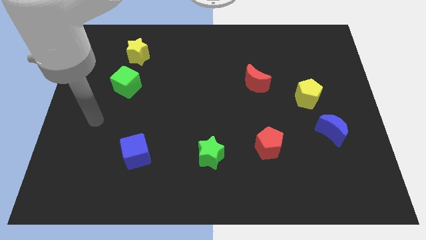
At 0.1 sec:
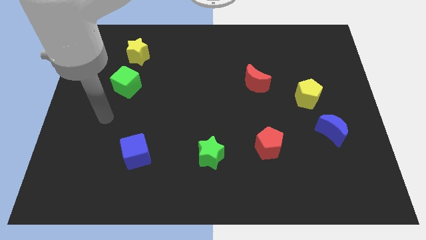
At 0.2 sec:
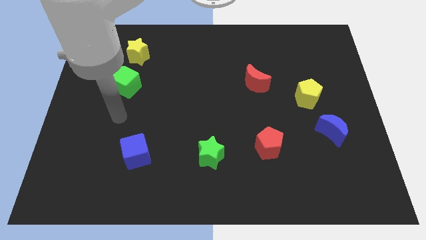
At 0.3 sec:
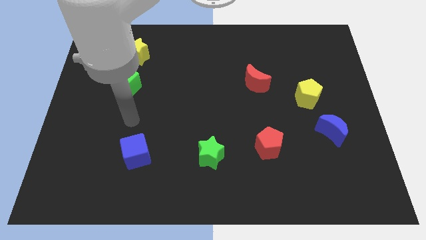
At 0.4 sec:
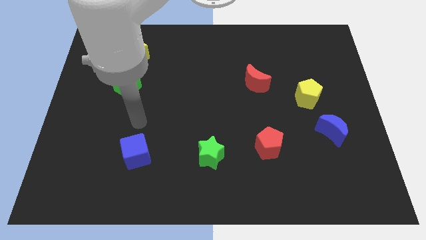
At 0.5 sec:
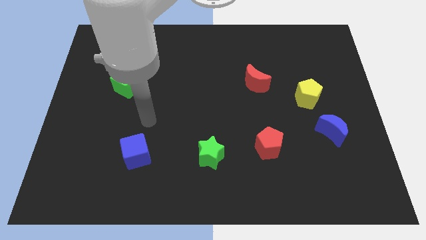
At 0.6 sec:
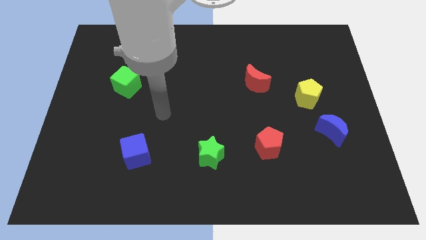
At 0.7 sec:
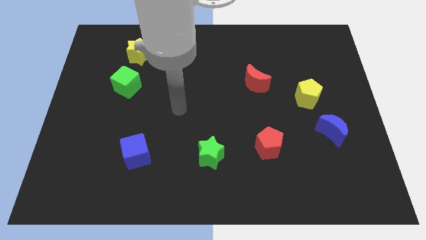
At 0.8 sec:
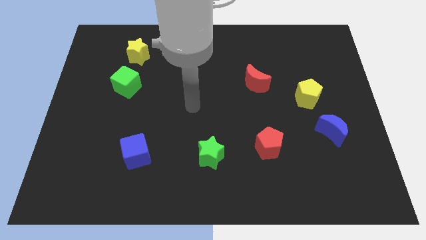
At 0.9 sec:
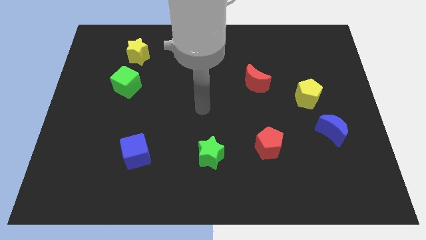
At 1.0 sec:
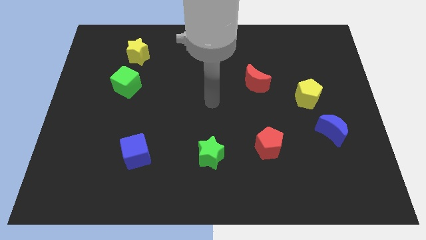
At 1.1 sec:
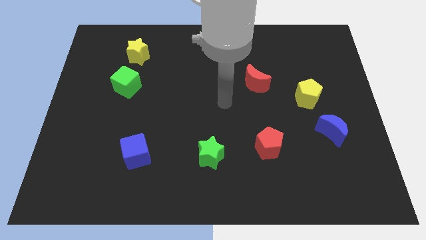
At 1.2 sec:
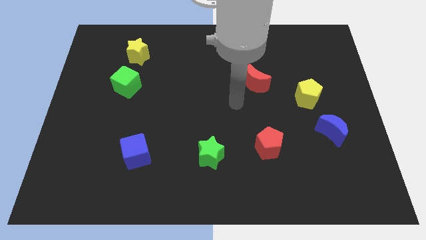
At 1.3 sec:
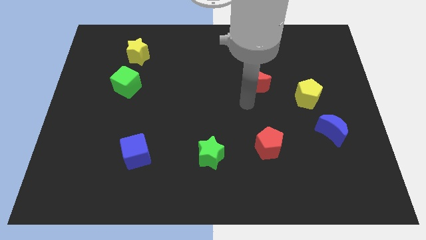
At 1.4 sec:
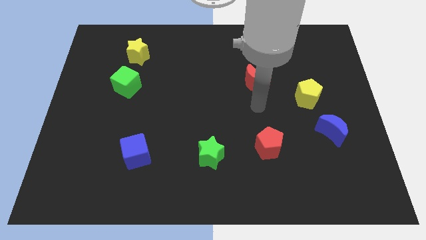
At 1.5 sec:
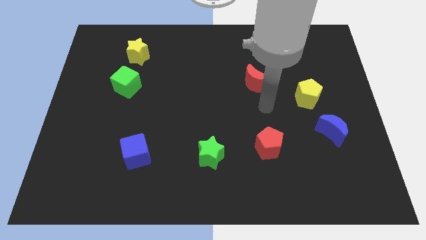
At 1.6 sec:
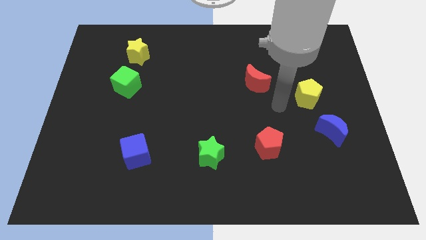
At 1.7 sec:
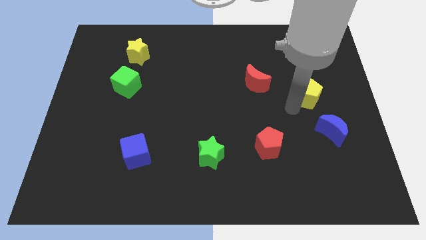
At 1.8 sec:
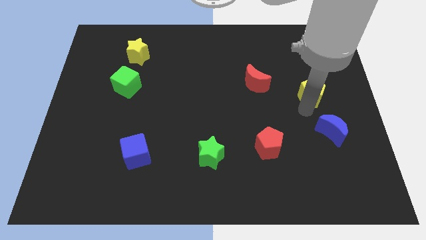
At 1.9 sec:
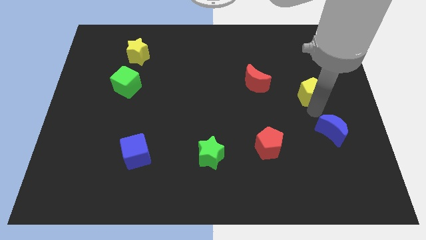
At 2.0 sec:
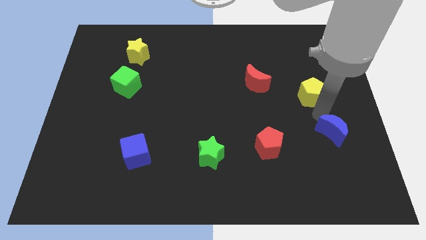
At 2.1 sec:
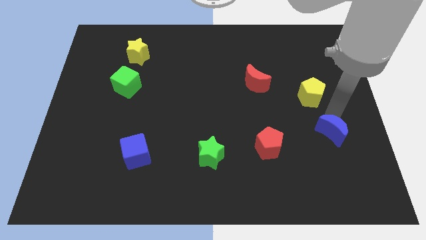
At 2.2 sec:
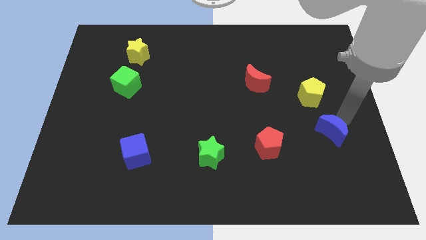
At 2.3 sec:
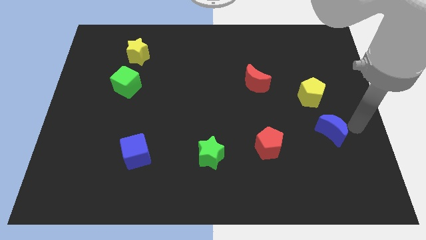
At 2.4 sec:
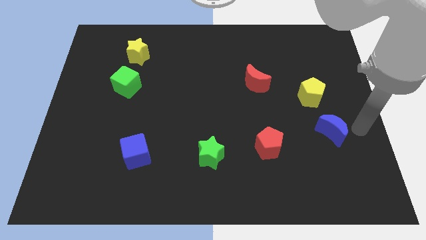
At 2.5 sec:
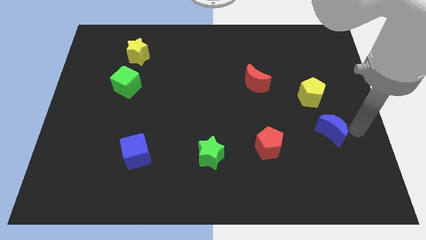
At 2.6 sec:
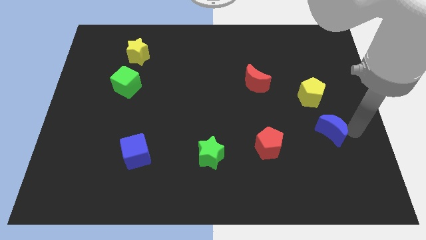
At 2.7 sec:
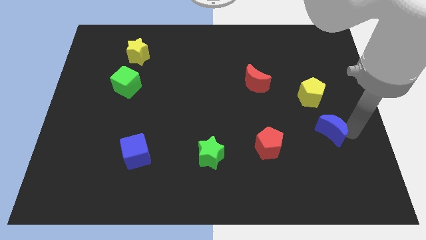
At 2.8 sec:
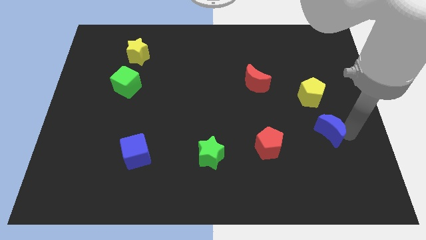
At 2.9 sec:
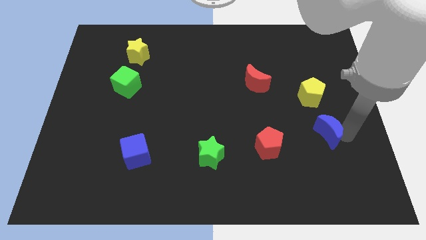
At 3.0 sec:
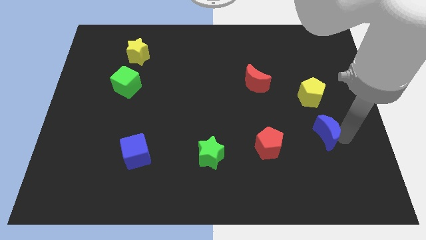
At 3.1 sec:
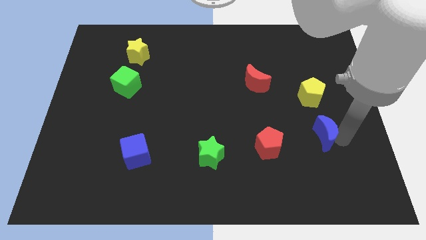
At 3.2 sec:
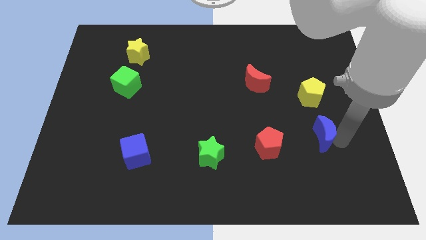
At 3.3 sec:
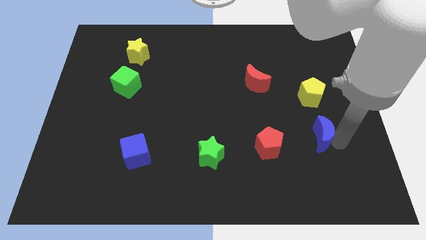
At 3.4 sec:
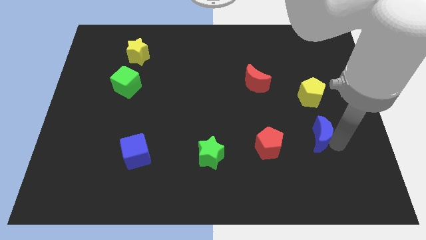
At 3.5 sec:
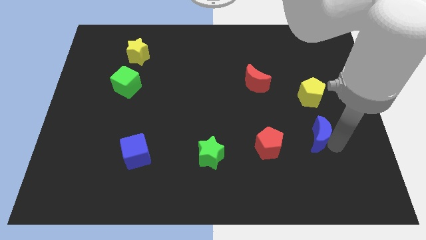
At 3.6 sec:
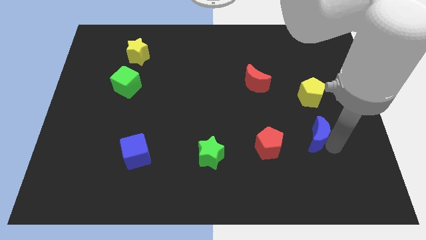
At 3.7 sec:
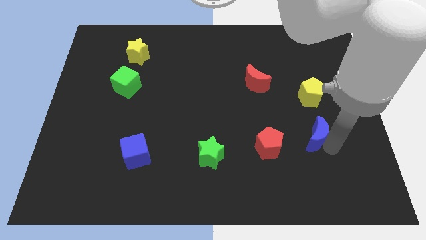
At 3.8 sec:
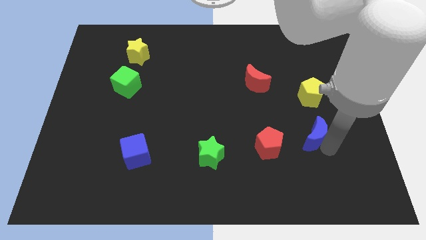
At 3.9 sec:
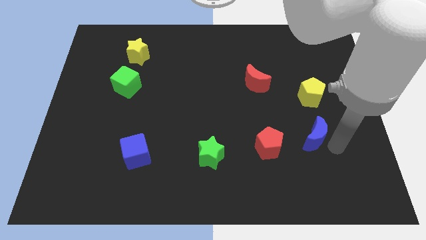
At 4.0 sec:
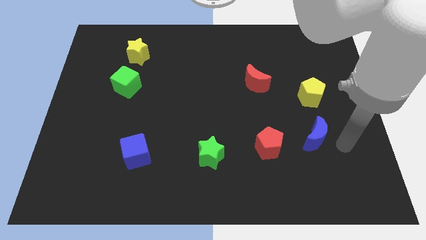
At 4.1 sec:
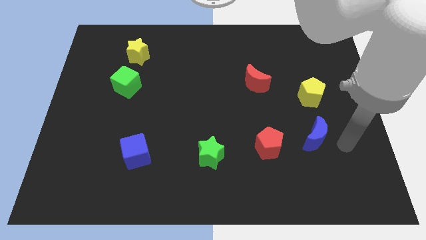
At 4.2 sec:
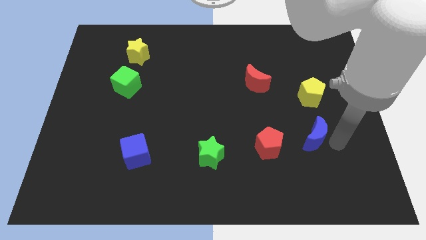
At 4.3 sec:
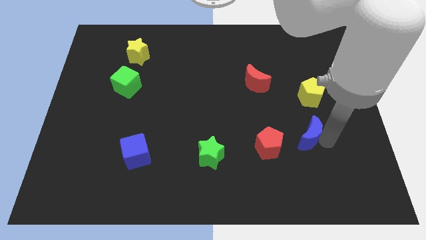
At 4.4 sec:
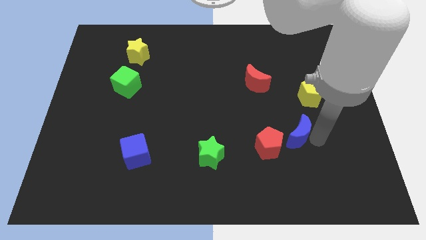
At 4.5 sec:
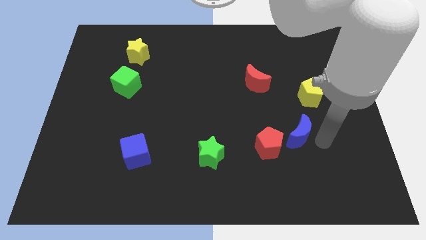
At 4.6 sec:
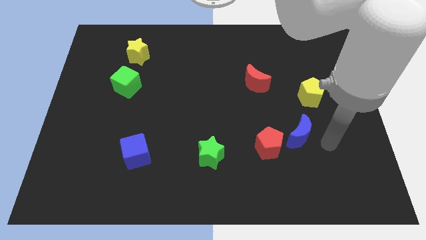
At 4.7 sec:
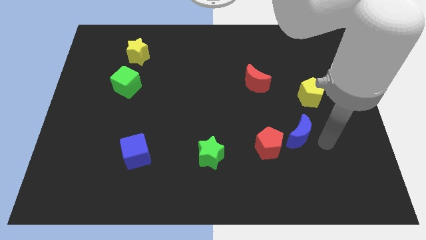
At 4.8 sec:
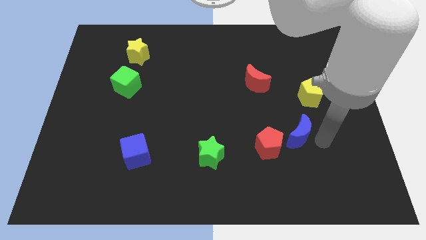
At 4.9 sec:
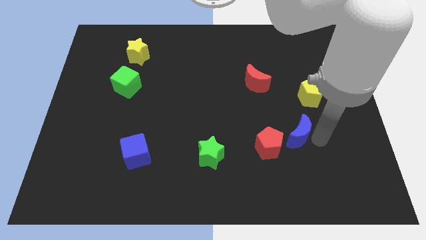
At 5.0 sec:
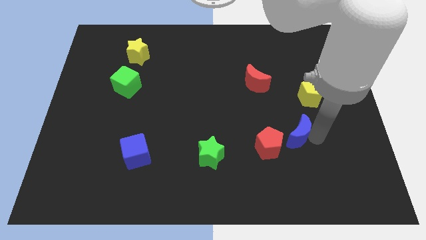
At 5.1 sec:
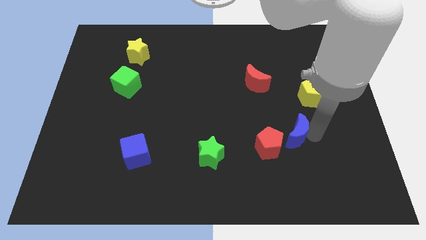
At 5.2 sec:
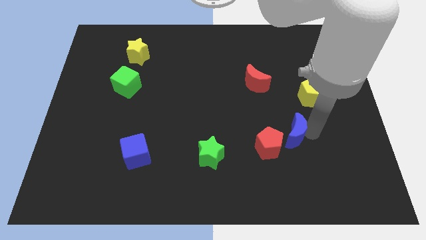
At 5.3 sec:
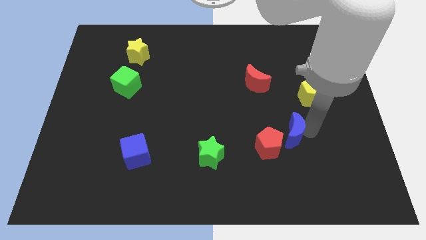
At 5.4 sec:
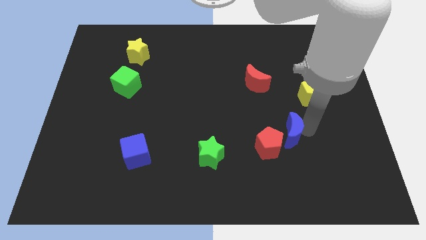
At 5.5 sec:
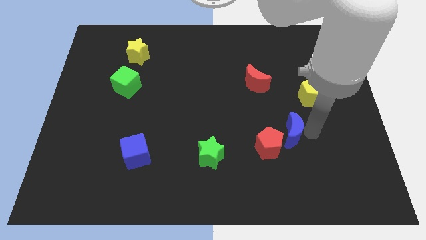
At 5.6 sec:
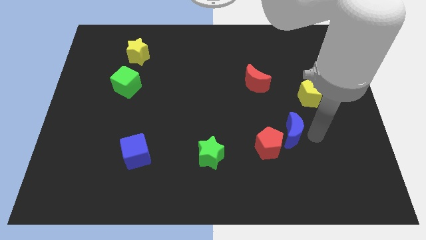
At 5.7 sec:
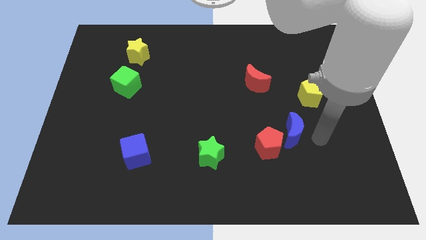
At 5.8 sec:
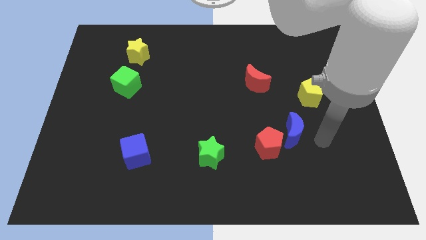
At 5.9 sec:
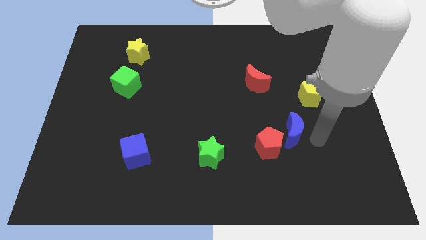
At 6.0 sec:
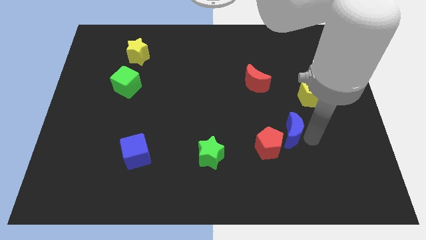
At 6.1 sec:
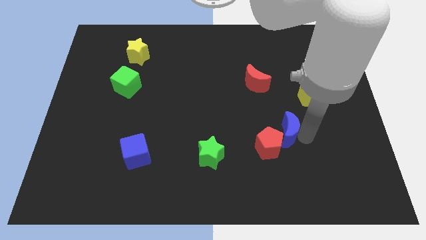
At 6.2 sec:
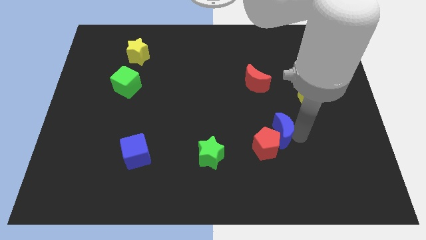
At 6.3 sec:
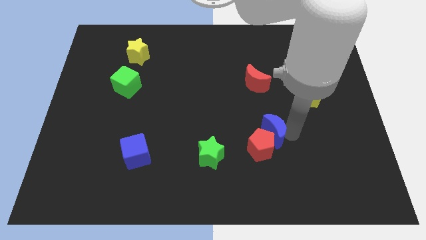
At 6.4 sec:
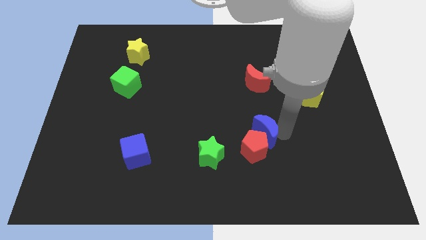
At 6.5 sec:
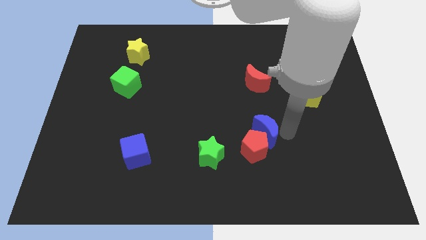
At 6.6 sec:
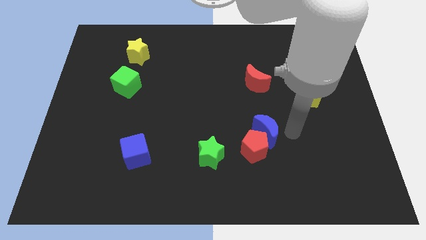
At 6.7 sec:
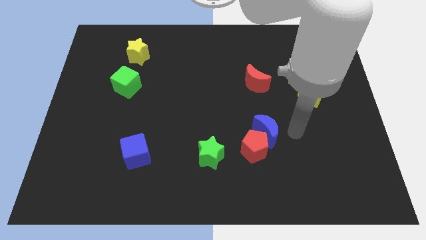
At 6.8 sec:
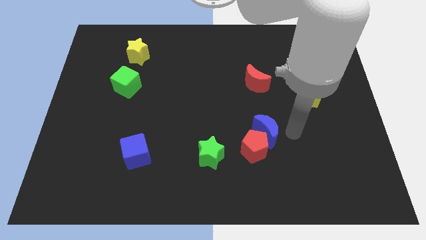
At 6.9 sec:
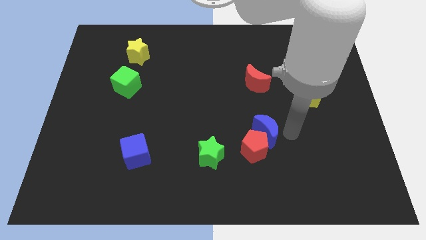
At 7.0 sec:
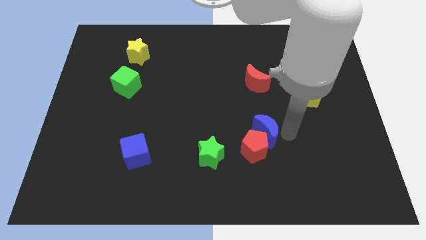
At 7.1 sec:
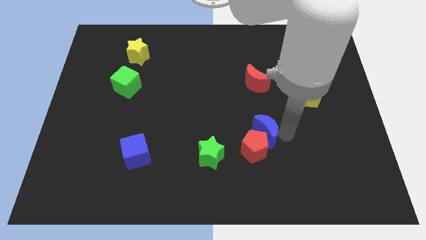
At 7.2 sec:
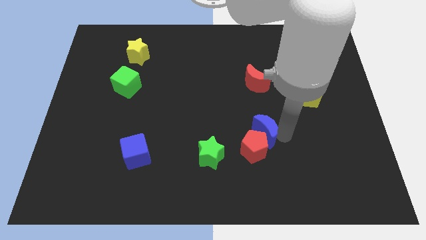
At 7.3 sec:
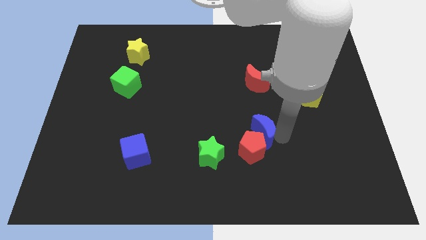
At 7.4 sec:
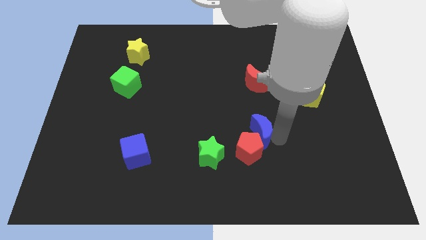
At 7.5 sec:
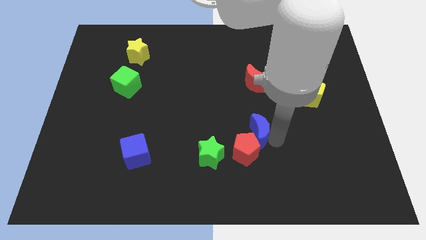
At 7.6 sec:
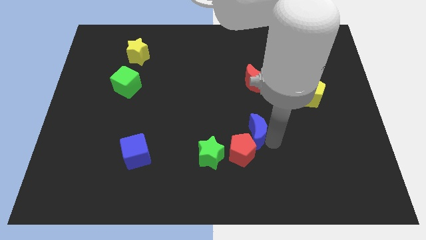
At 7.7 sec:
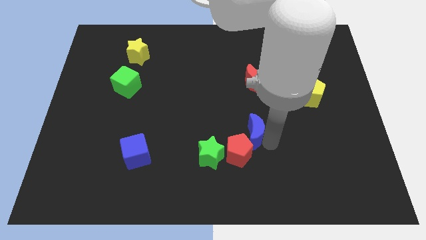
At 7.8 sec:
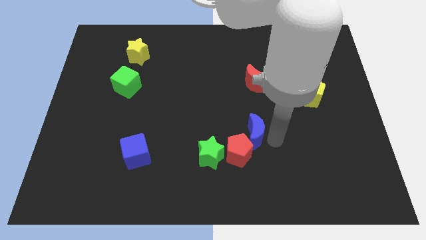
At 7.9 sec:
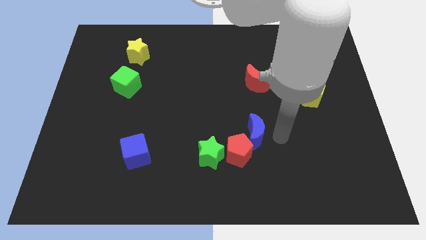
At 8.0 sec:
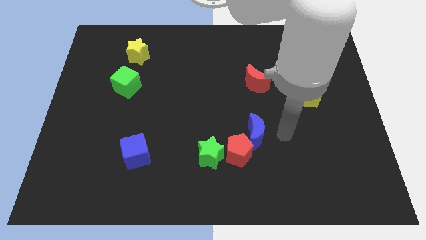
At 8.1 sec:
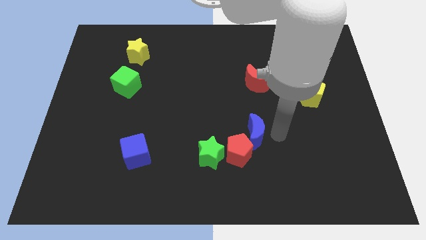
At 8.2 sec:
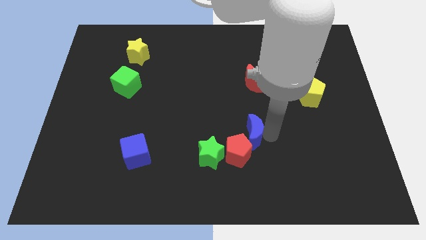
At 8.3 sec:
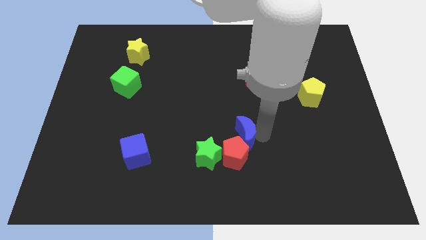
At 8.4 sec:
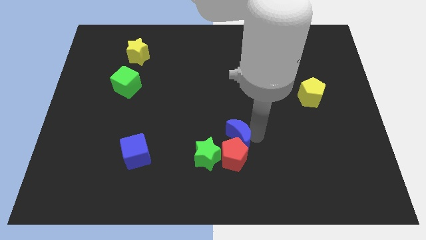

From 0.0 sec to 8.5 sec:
move the blue moon left
